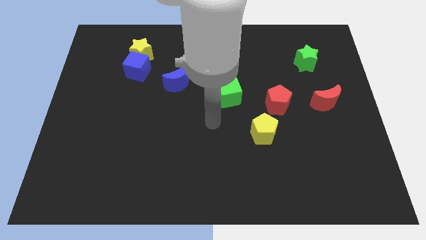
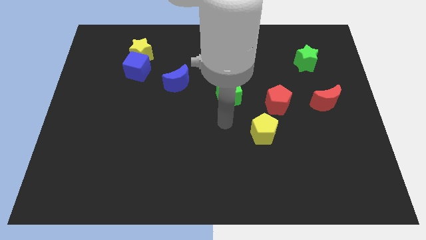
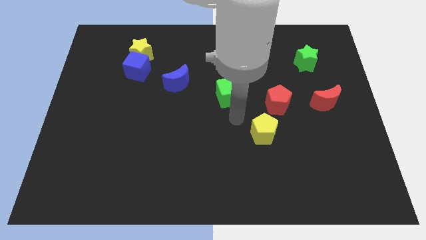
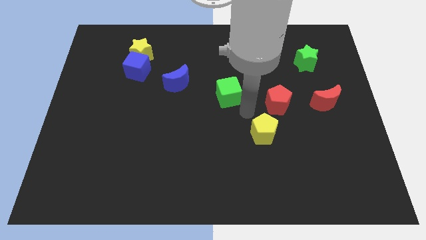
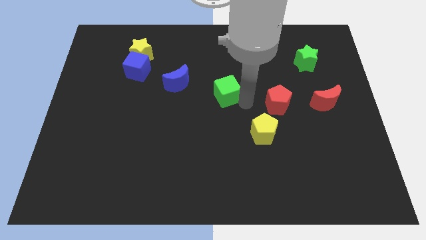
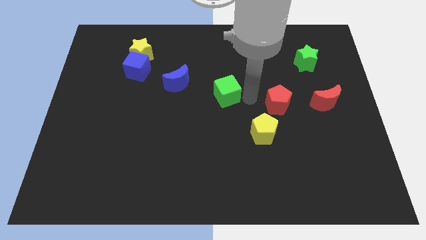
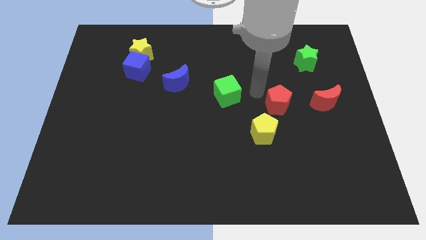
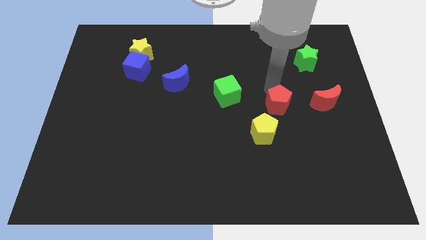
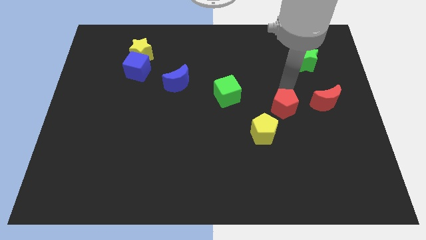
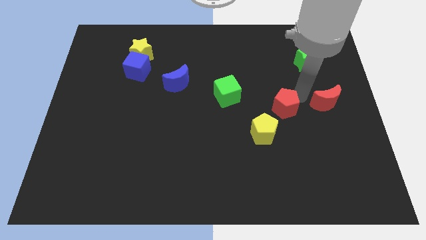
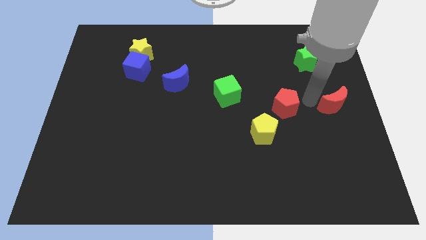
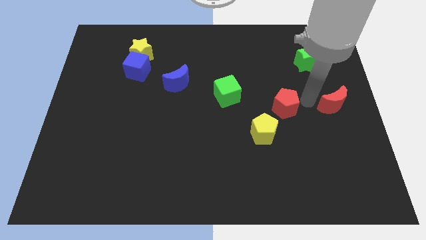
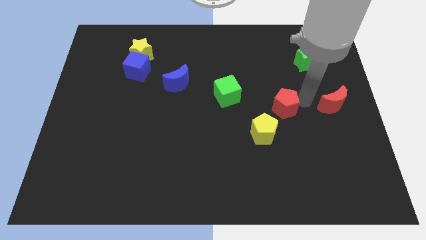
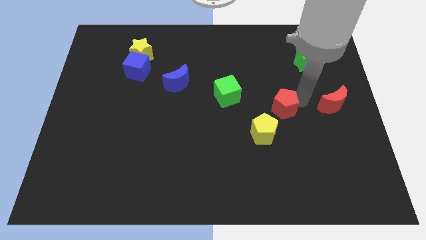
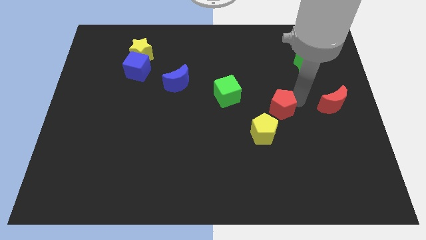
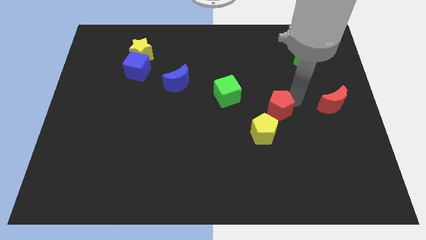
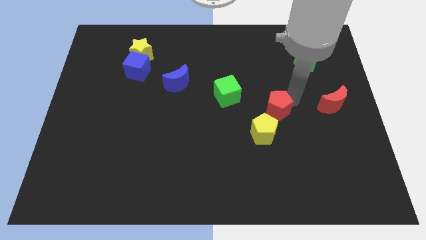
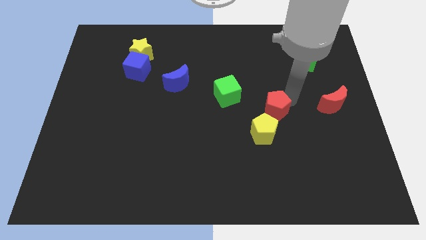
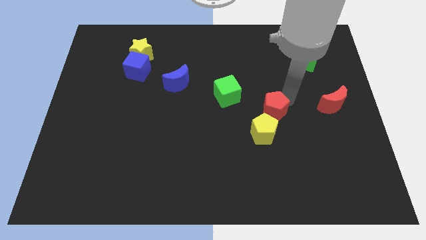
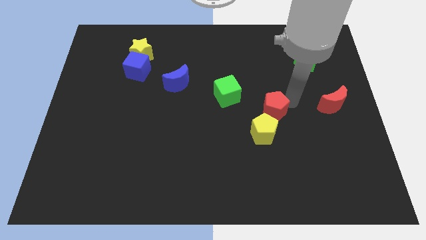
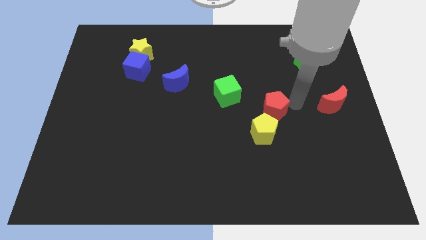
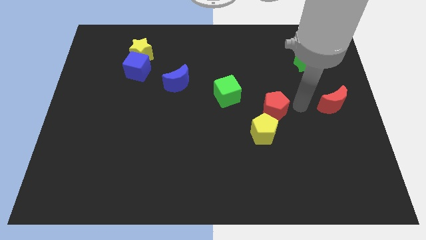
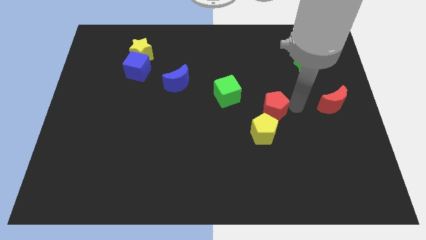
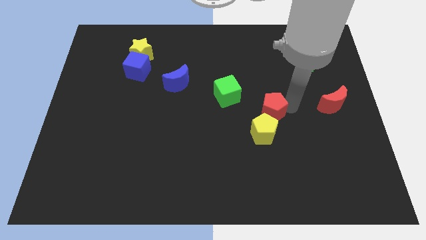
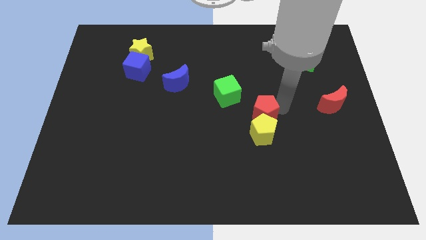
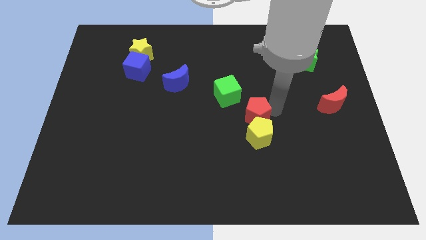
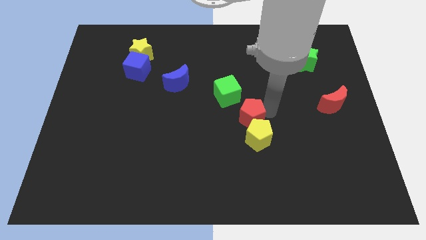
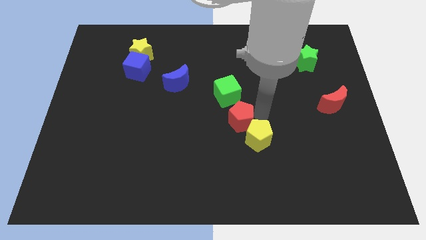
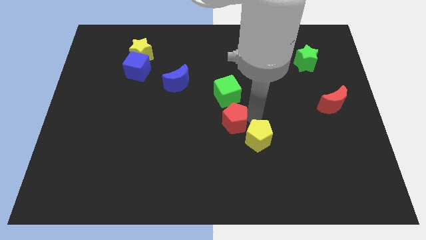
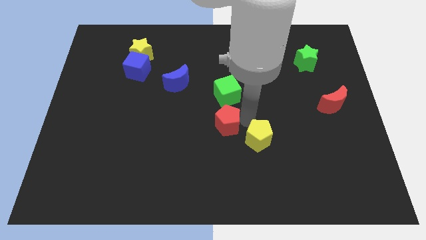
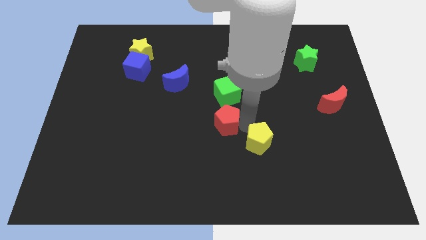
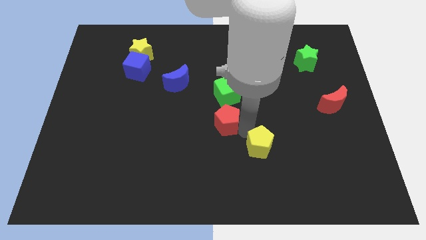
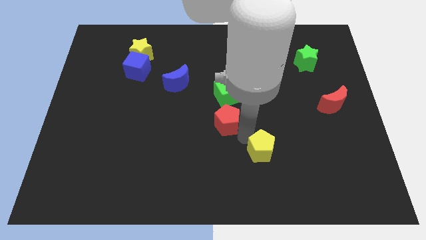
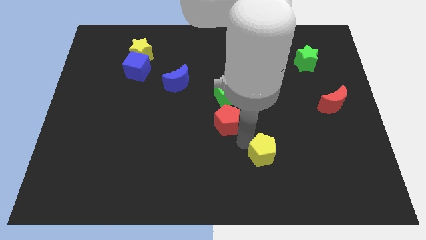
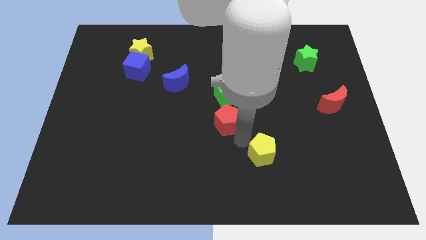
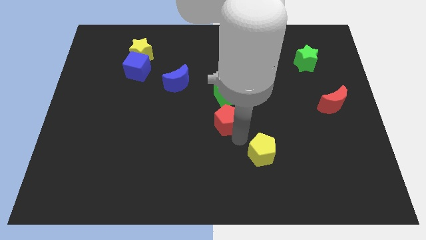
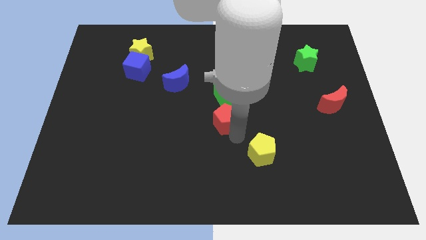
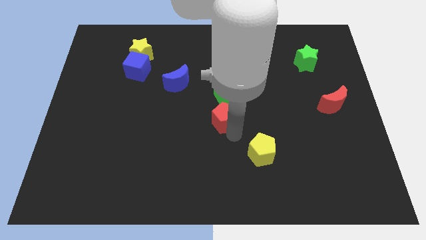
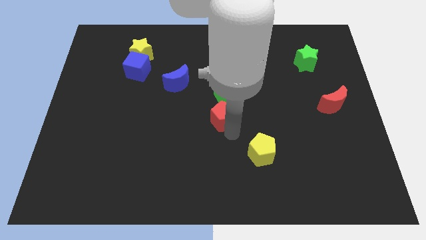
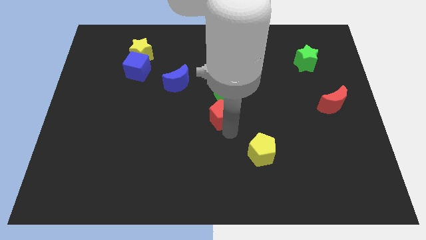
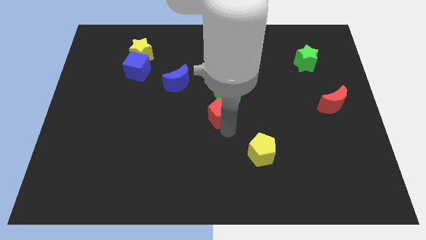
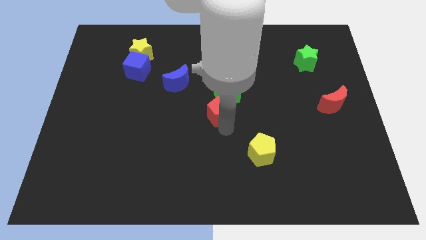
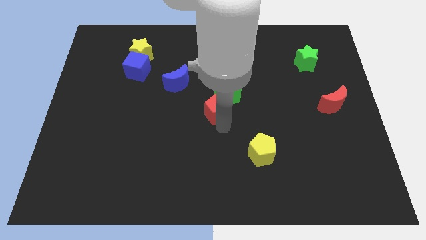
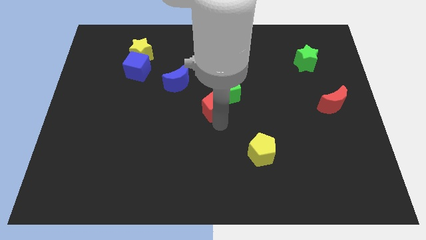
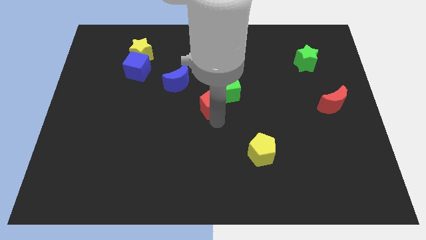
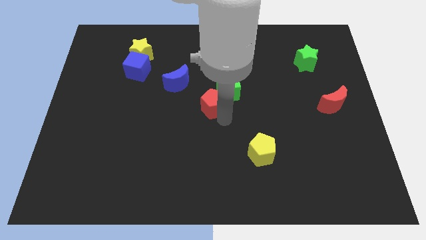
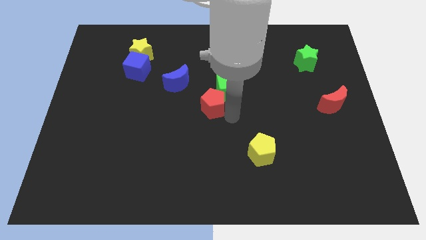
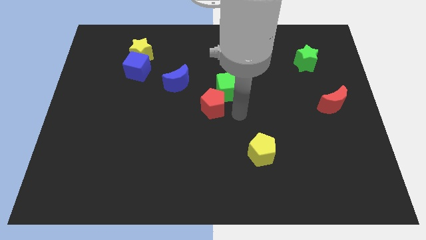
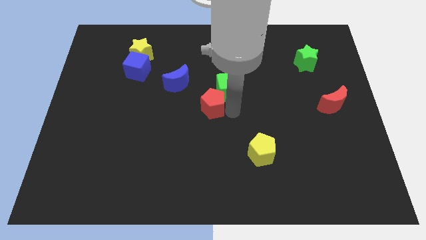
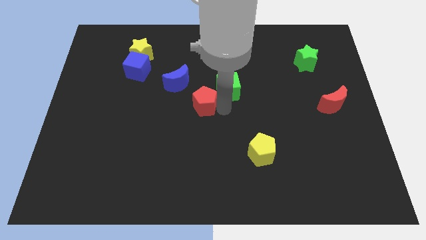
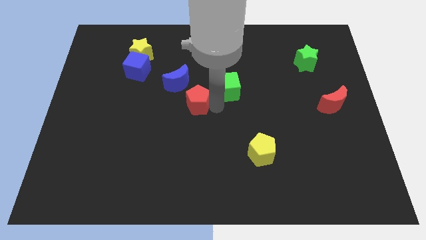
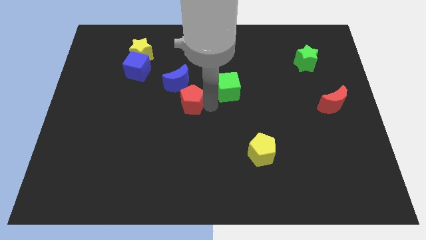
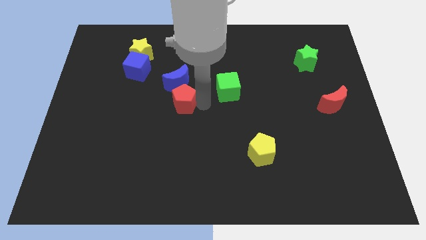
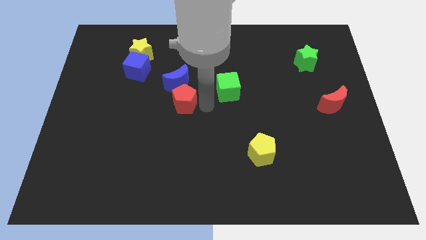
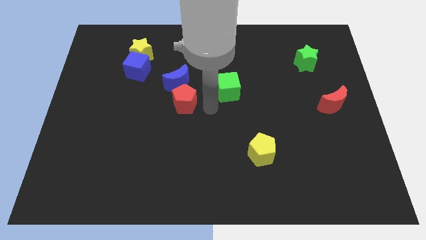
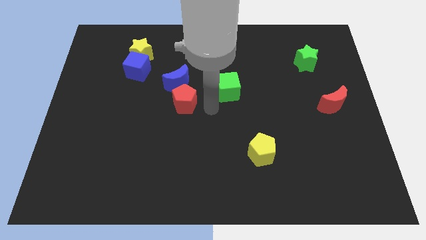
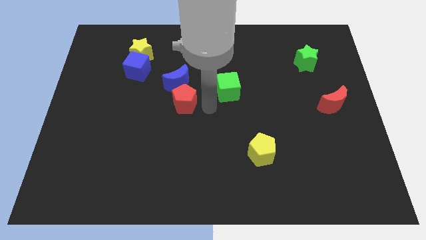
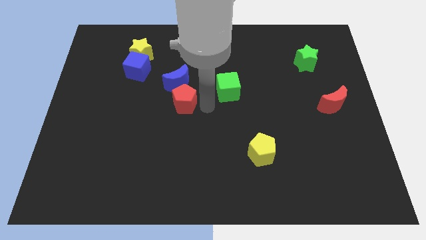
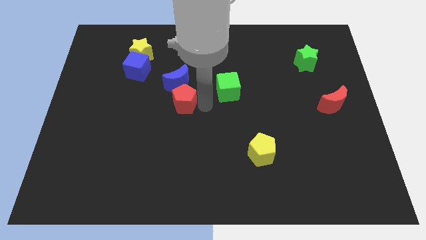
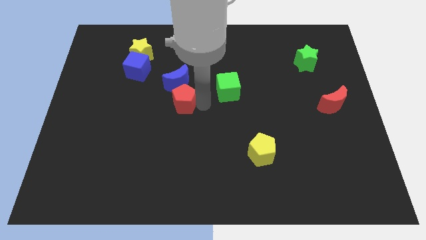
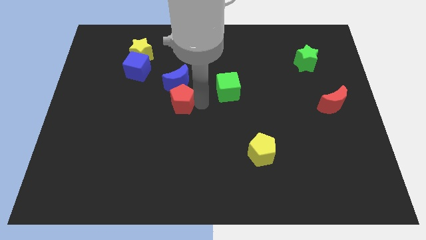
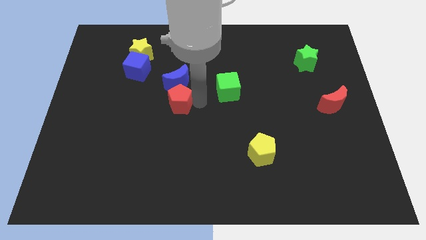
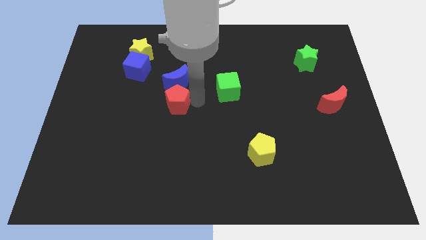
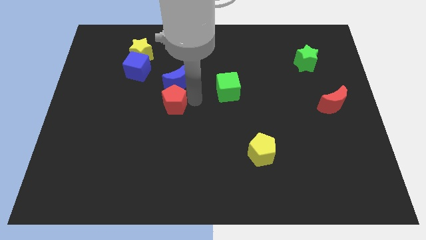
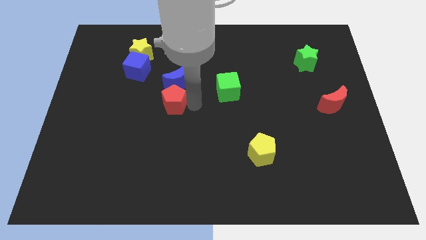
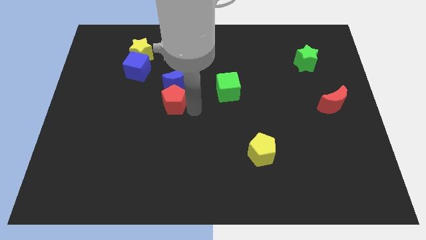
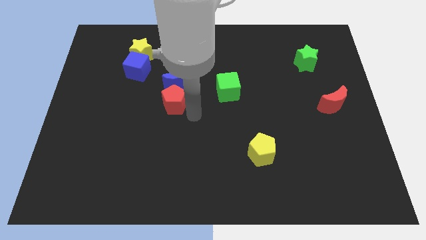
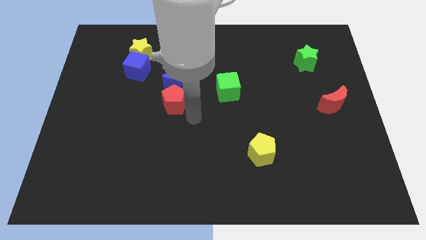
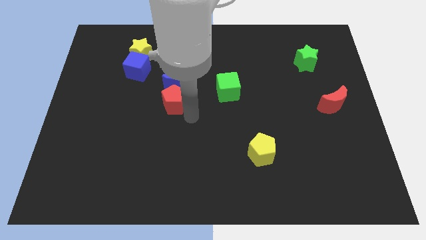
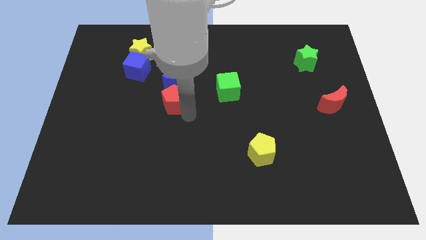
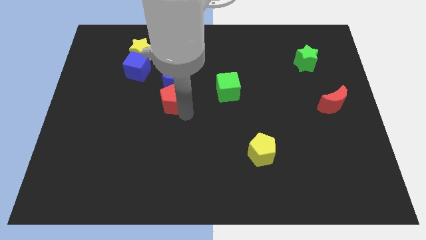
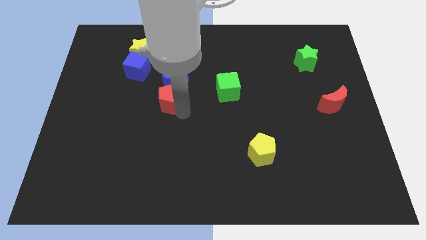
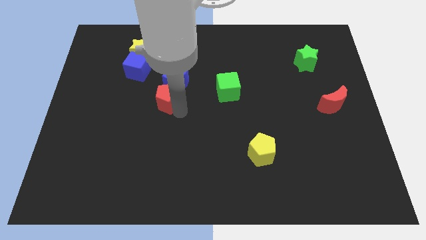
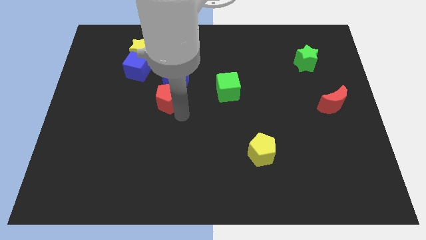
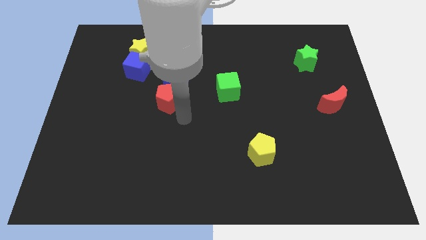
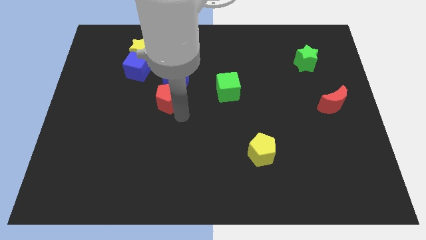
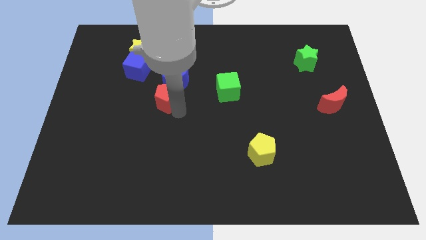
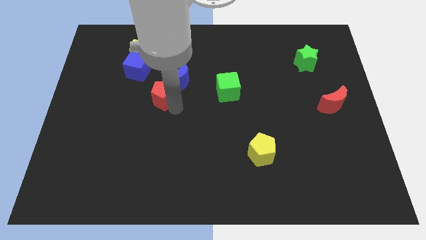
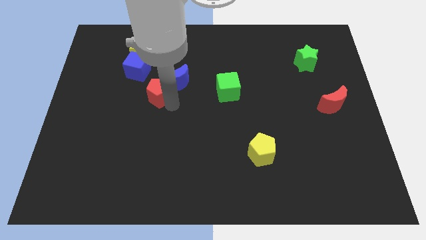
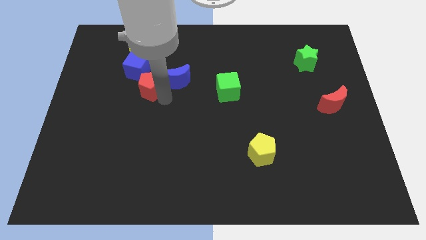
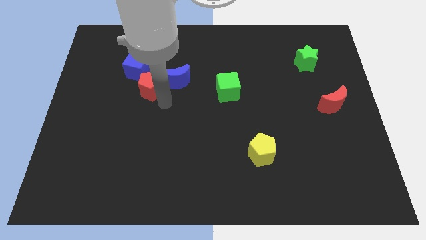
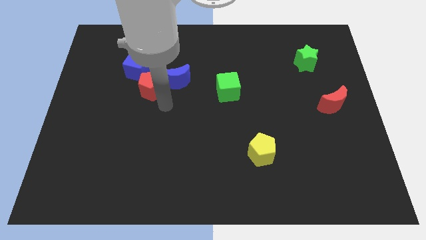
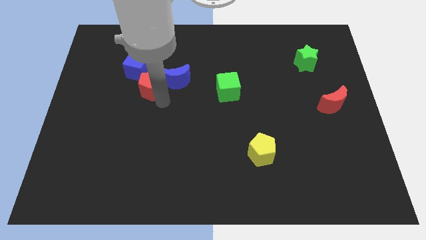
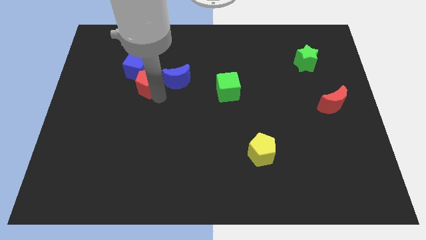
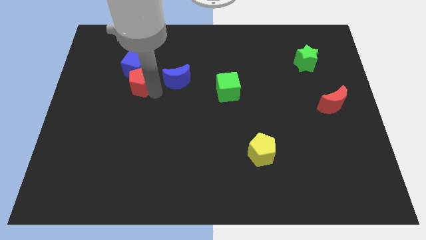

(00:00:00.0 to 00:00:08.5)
put the red pentagon towards the blue cube
